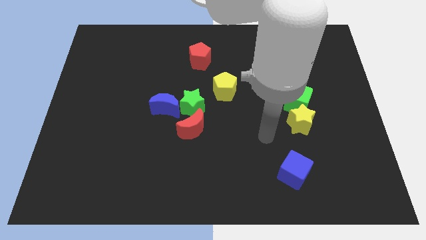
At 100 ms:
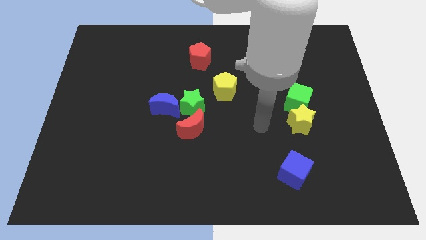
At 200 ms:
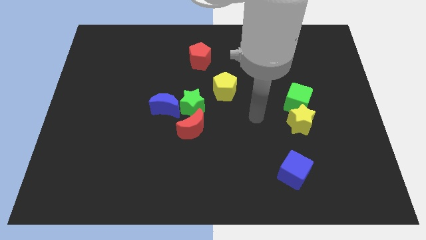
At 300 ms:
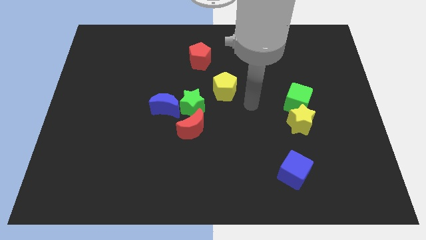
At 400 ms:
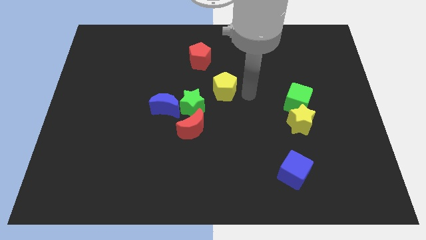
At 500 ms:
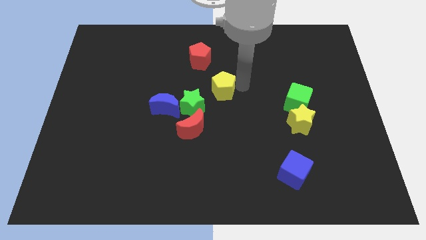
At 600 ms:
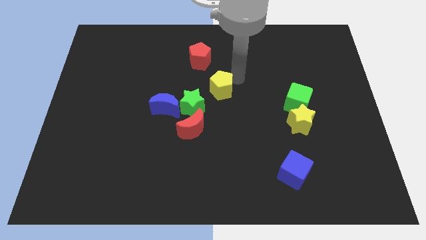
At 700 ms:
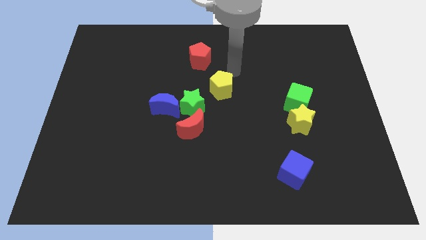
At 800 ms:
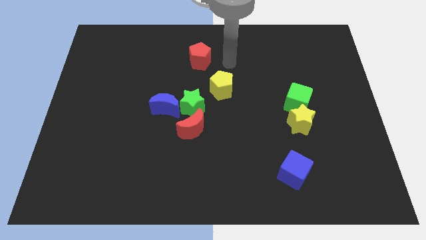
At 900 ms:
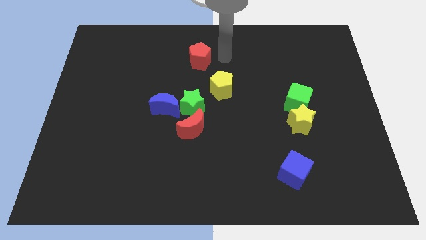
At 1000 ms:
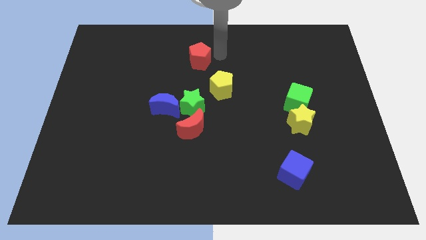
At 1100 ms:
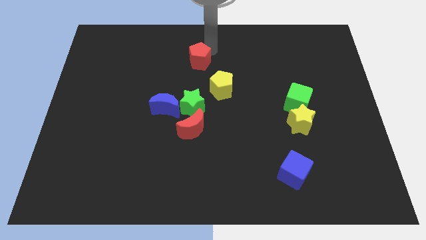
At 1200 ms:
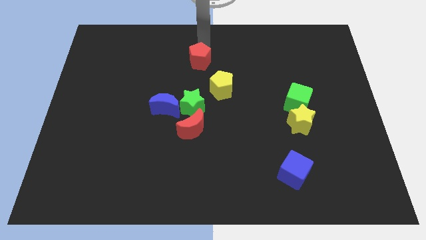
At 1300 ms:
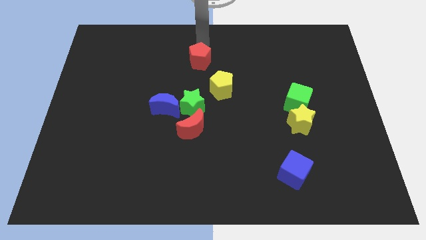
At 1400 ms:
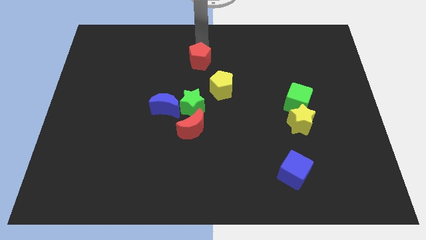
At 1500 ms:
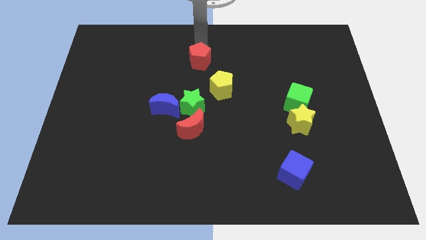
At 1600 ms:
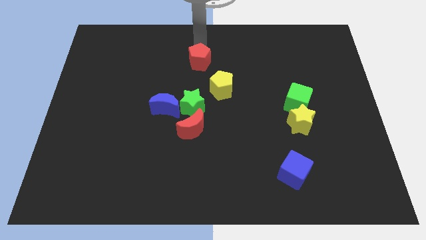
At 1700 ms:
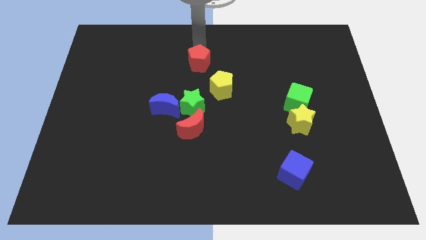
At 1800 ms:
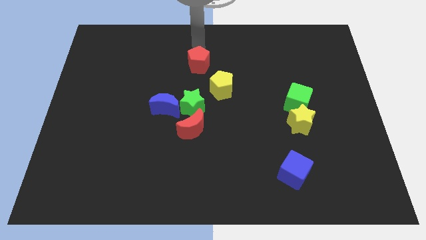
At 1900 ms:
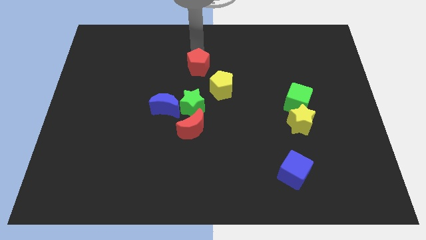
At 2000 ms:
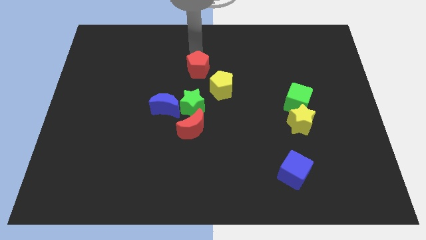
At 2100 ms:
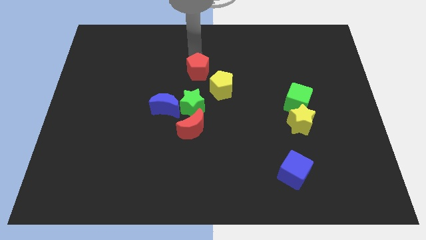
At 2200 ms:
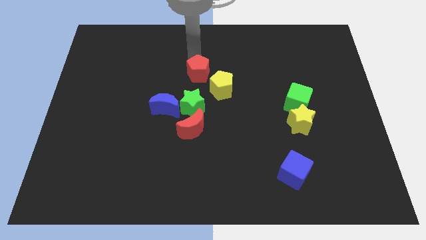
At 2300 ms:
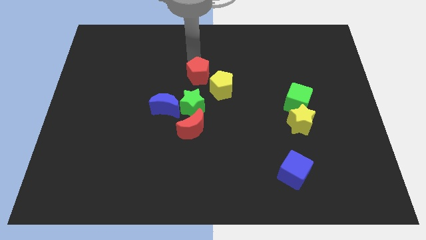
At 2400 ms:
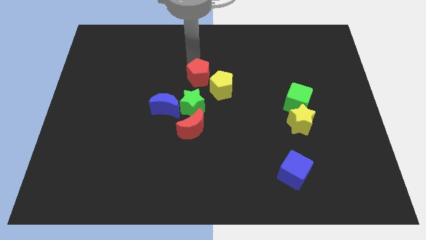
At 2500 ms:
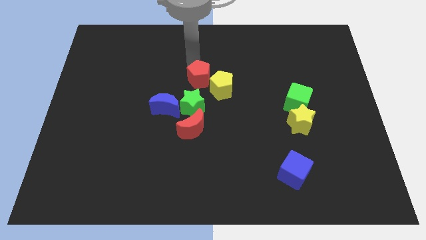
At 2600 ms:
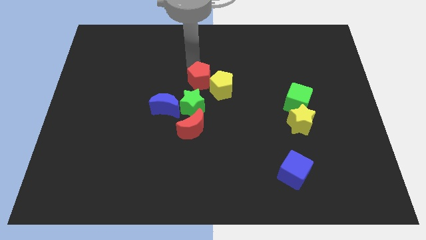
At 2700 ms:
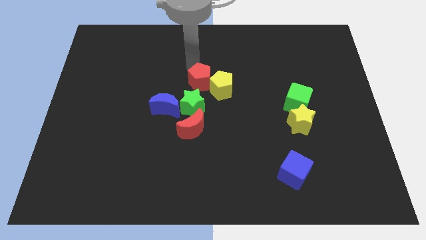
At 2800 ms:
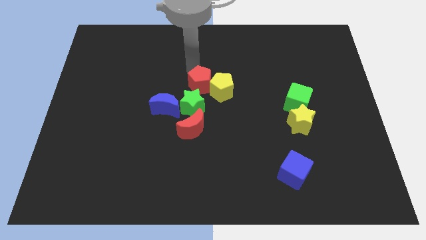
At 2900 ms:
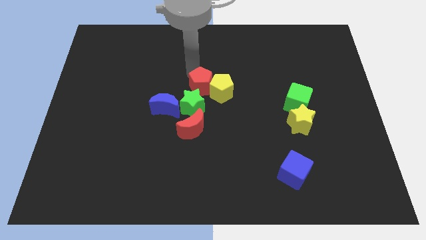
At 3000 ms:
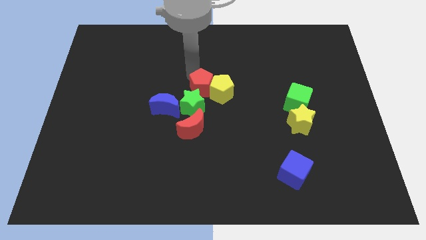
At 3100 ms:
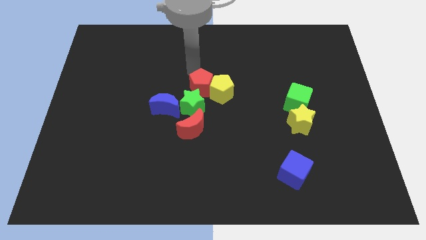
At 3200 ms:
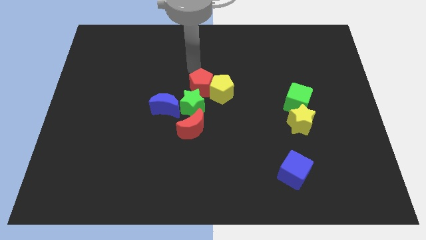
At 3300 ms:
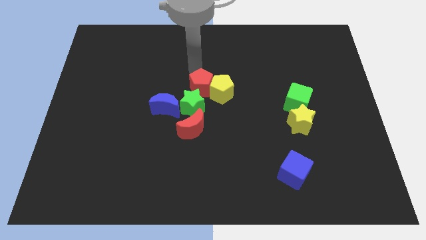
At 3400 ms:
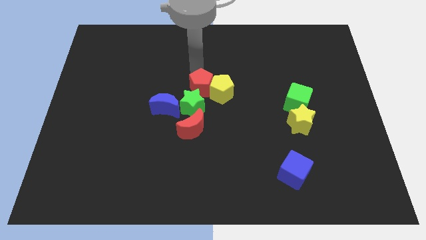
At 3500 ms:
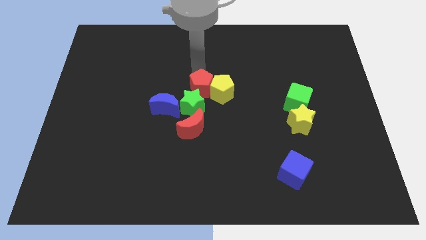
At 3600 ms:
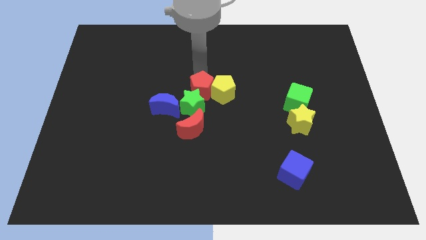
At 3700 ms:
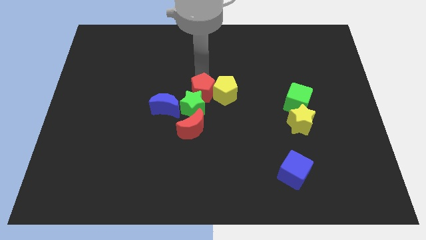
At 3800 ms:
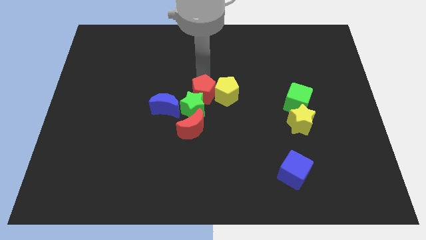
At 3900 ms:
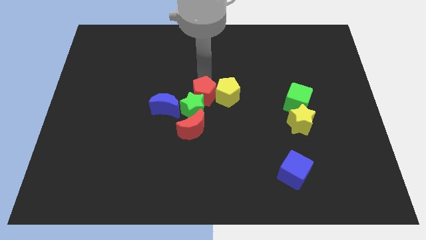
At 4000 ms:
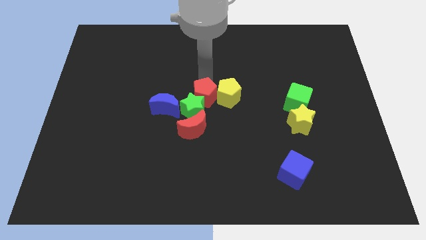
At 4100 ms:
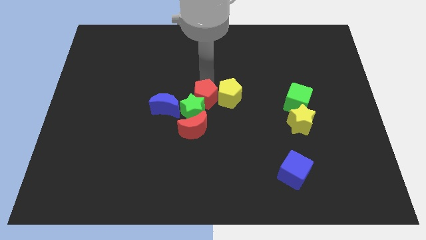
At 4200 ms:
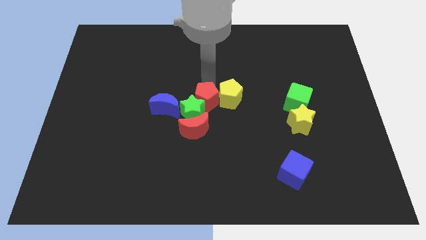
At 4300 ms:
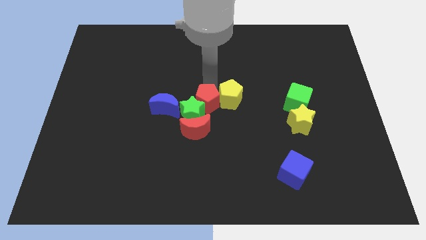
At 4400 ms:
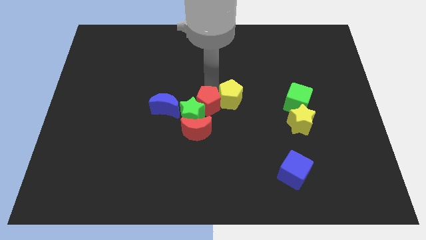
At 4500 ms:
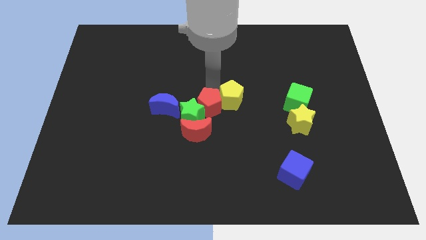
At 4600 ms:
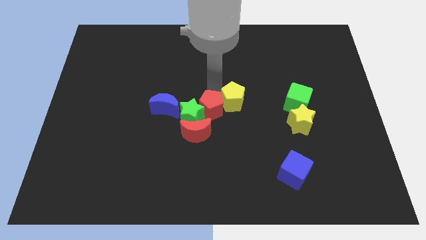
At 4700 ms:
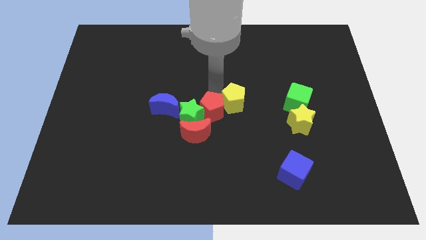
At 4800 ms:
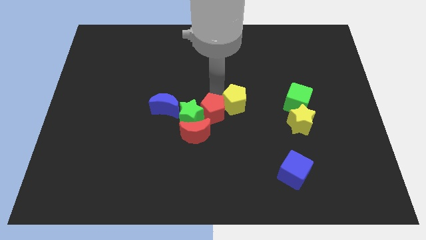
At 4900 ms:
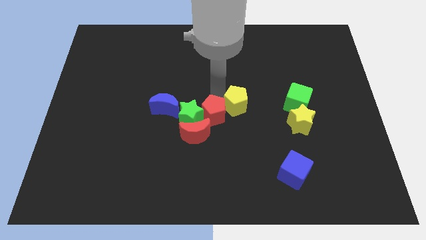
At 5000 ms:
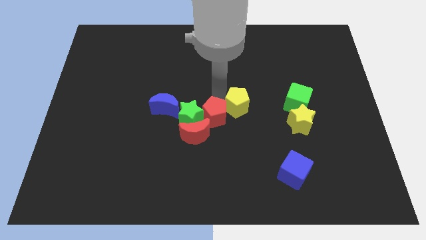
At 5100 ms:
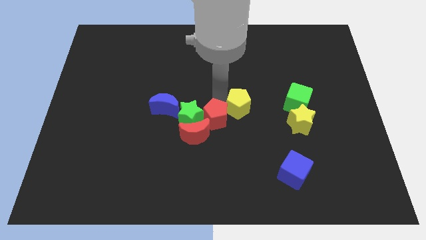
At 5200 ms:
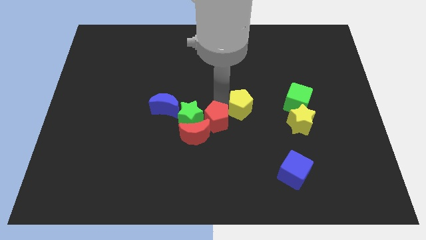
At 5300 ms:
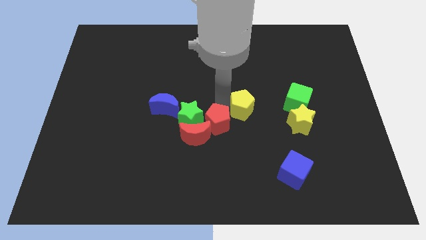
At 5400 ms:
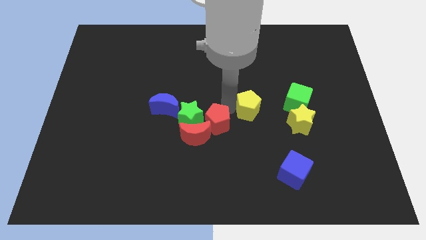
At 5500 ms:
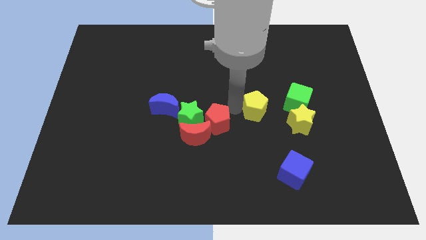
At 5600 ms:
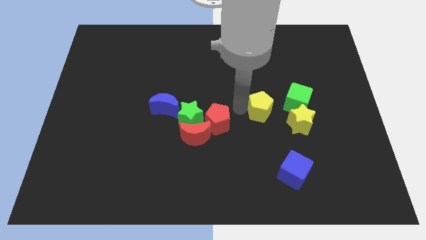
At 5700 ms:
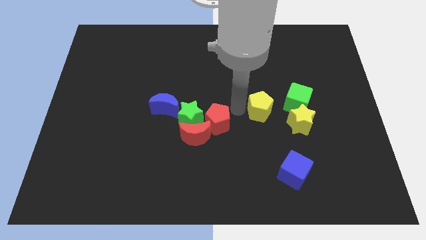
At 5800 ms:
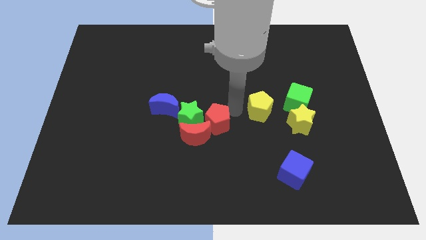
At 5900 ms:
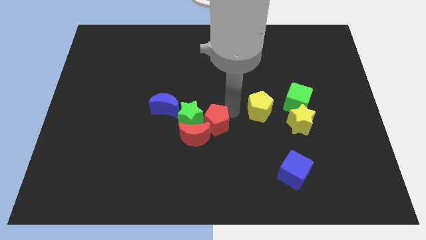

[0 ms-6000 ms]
push the red pentagon to the red moon

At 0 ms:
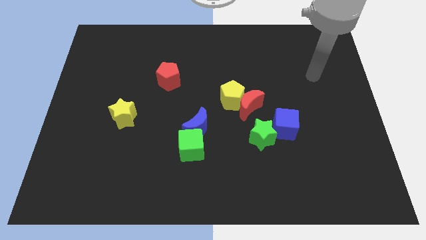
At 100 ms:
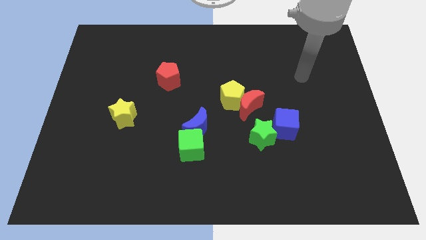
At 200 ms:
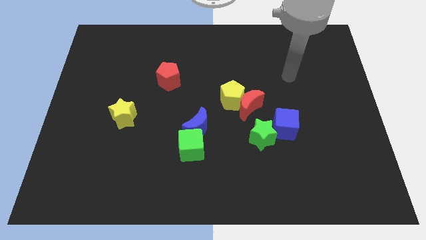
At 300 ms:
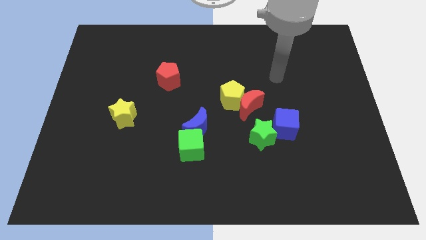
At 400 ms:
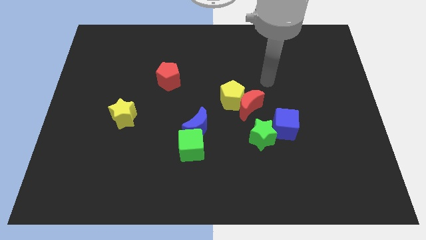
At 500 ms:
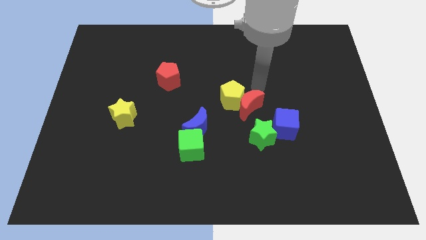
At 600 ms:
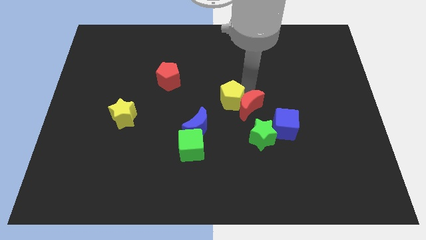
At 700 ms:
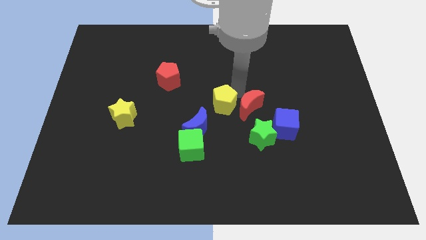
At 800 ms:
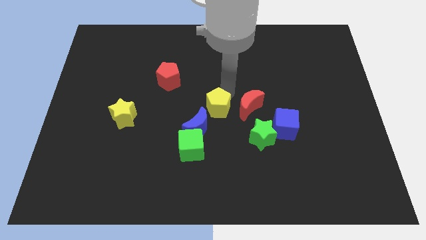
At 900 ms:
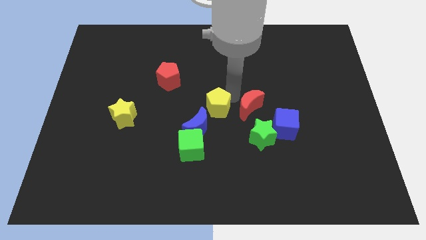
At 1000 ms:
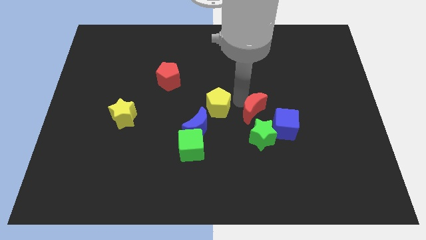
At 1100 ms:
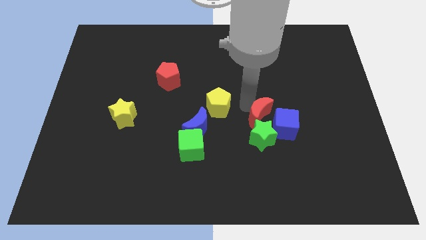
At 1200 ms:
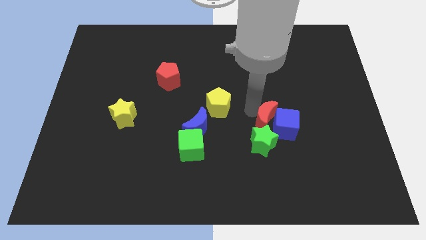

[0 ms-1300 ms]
move the red moon close to the blue cube

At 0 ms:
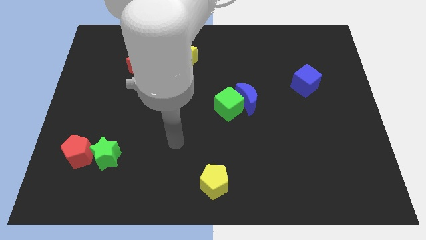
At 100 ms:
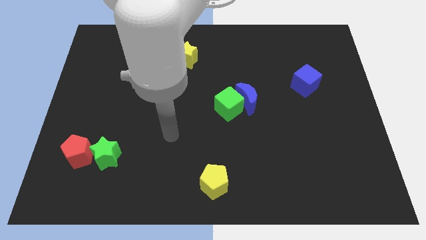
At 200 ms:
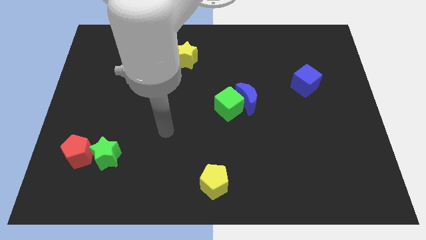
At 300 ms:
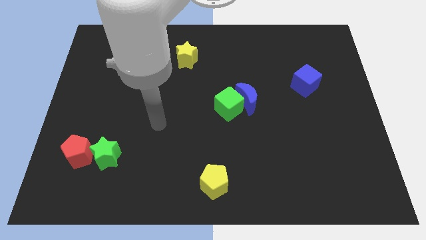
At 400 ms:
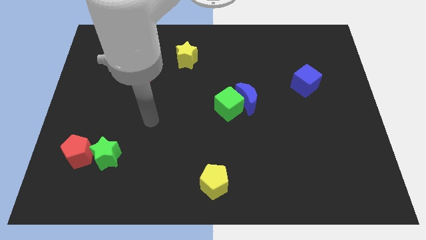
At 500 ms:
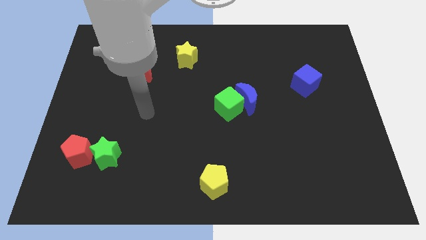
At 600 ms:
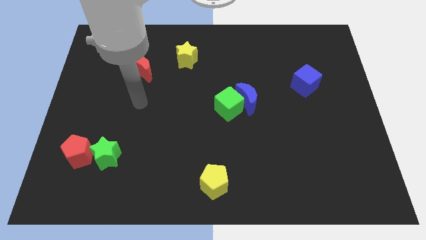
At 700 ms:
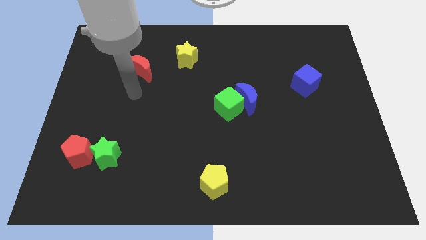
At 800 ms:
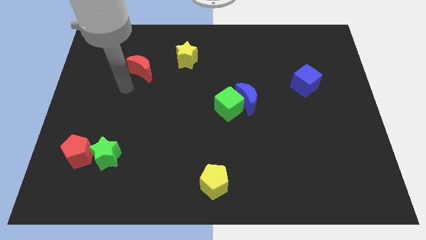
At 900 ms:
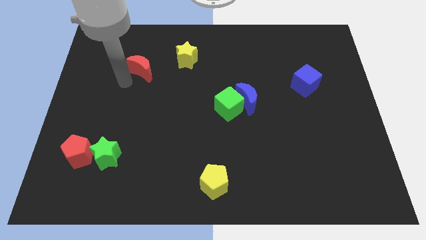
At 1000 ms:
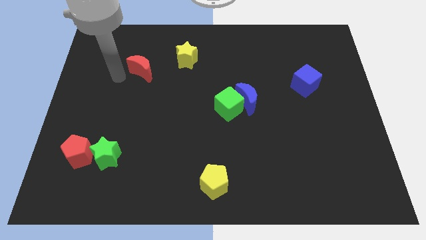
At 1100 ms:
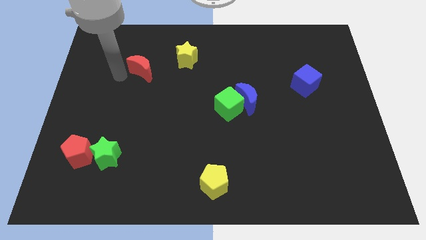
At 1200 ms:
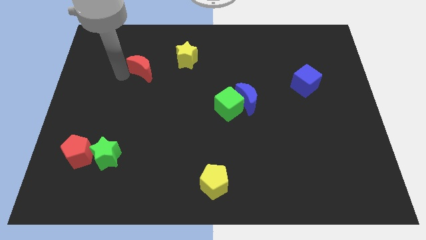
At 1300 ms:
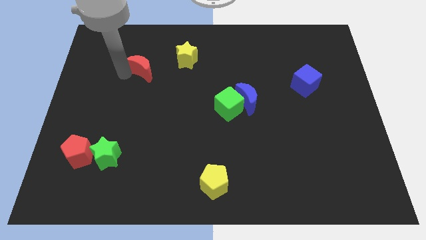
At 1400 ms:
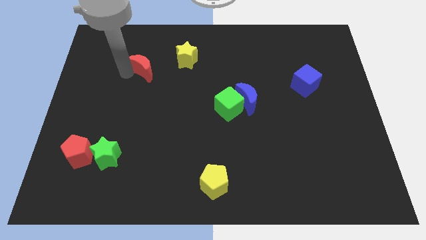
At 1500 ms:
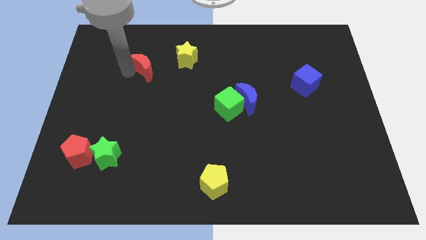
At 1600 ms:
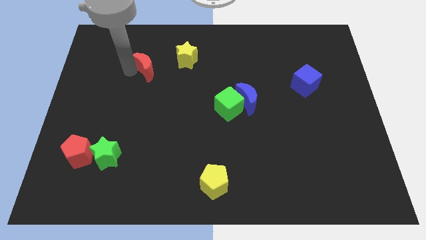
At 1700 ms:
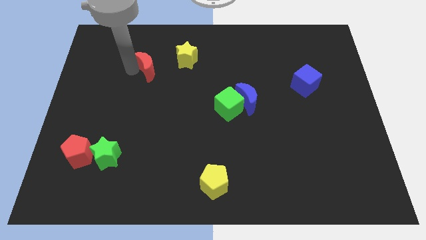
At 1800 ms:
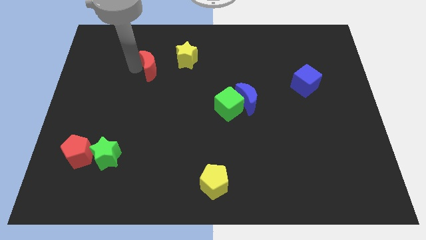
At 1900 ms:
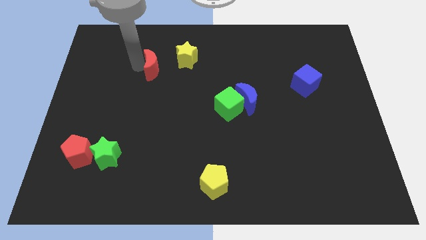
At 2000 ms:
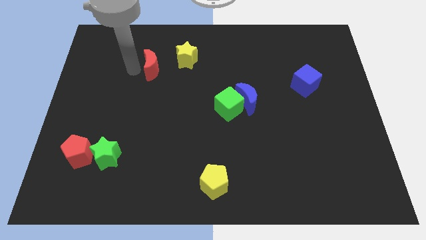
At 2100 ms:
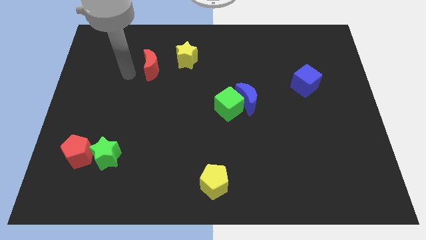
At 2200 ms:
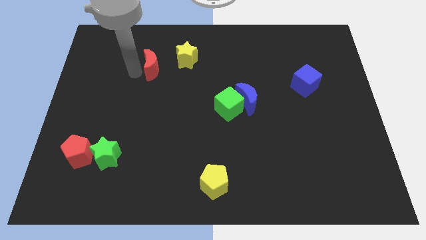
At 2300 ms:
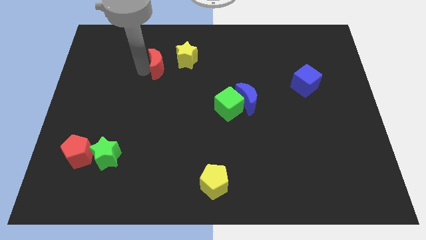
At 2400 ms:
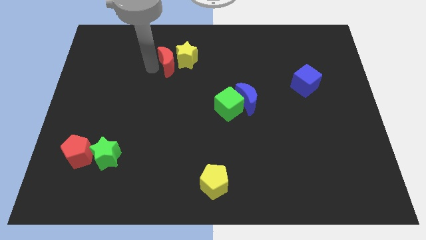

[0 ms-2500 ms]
slide the red moon close to the yellow star
